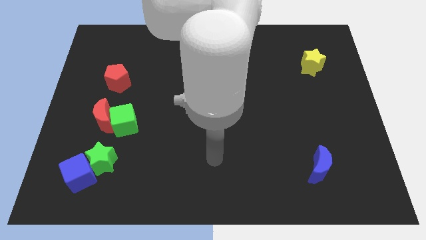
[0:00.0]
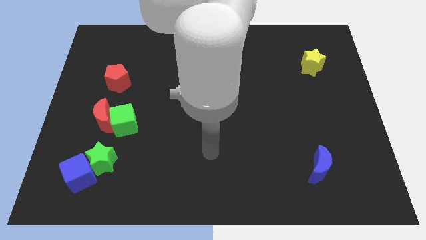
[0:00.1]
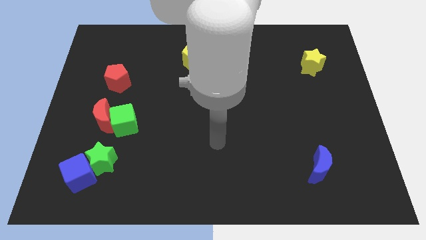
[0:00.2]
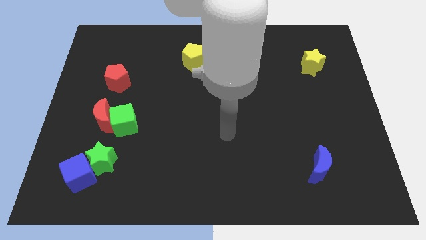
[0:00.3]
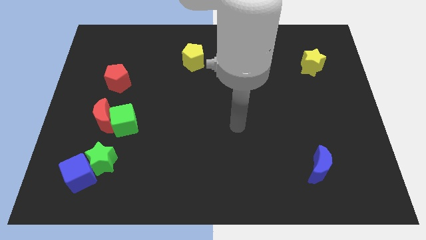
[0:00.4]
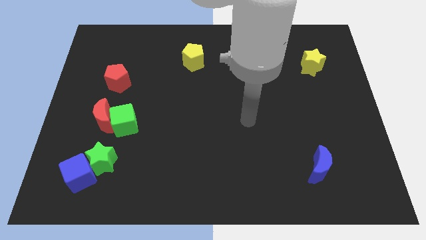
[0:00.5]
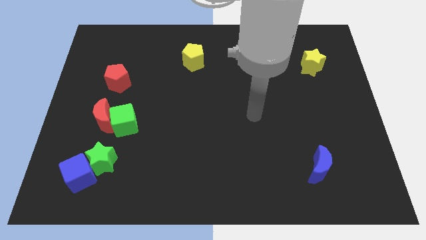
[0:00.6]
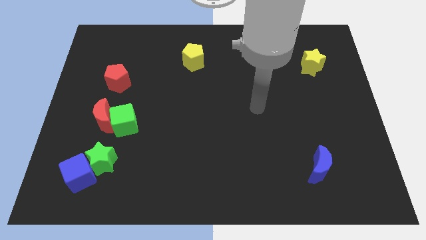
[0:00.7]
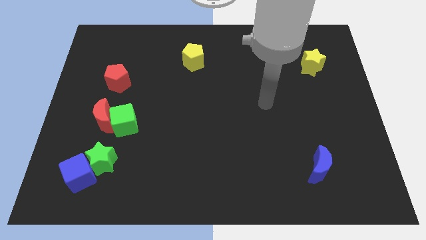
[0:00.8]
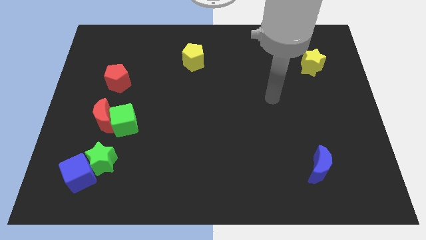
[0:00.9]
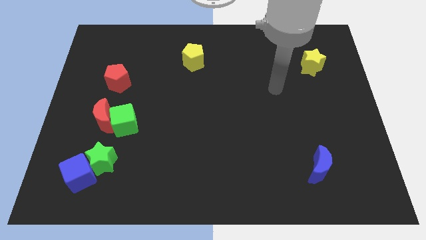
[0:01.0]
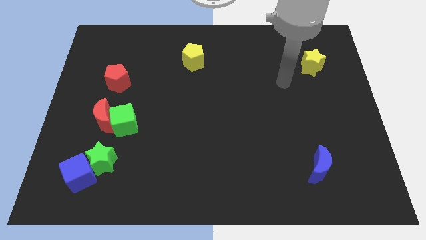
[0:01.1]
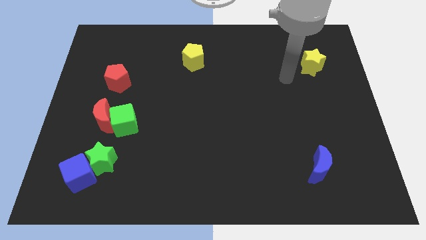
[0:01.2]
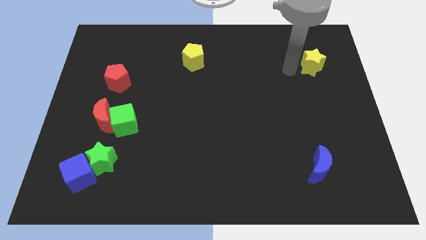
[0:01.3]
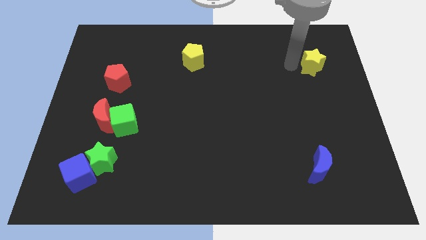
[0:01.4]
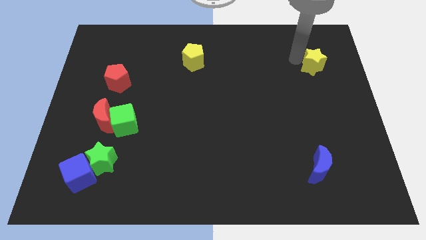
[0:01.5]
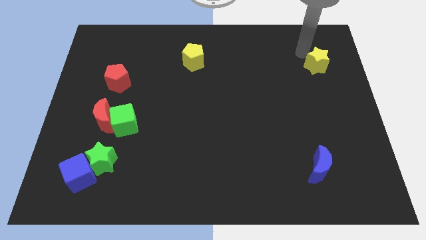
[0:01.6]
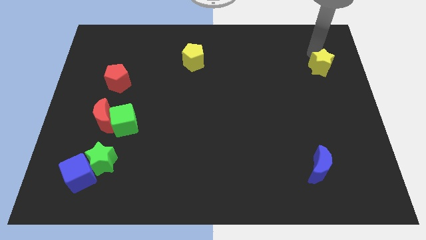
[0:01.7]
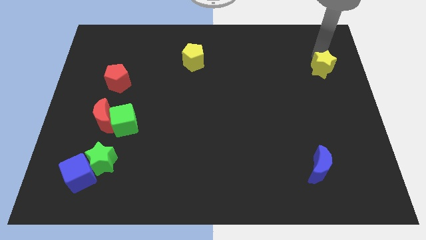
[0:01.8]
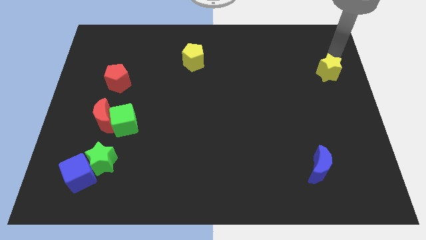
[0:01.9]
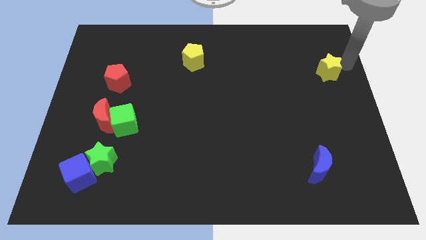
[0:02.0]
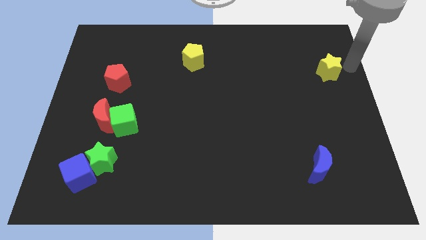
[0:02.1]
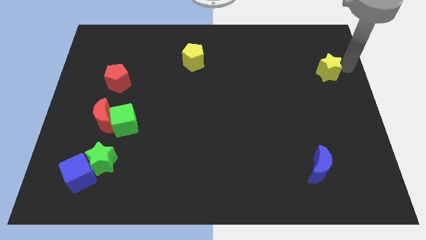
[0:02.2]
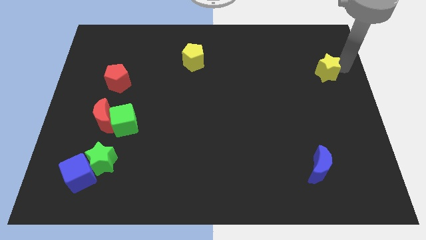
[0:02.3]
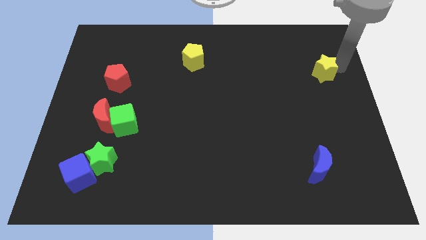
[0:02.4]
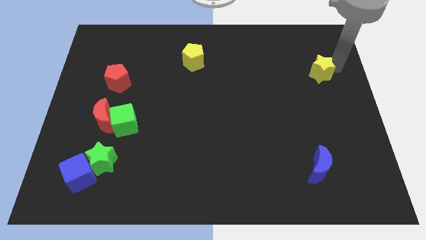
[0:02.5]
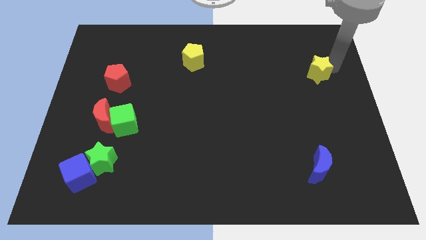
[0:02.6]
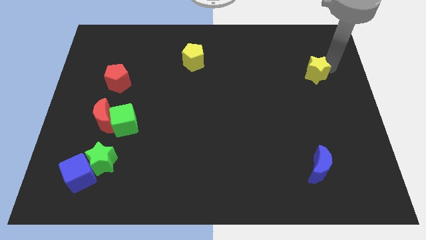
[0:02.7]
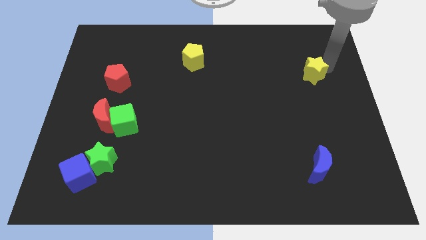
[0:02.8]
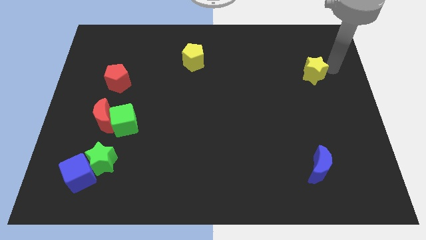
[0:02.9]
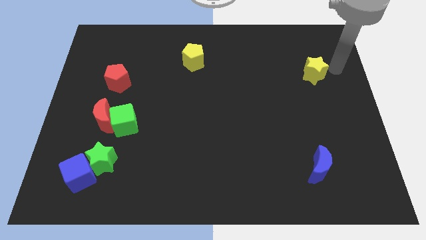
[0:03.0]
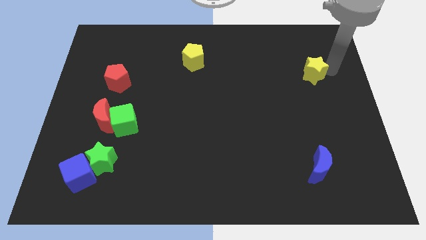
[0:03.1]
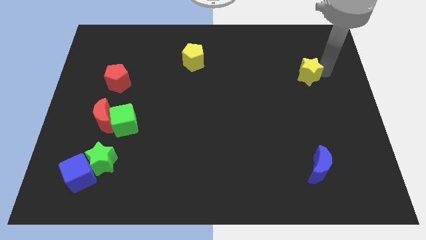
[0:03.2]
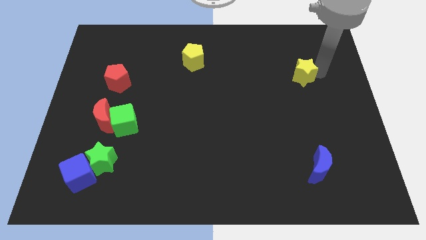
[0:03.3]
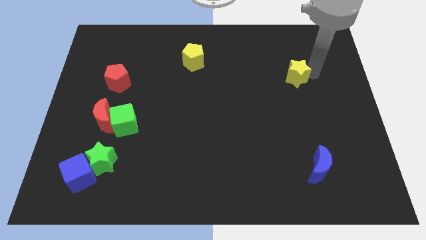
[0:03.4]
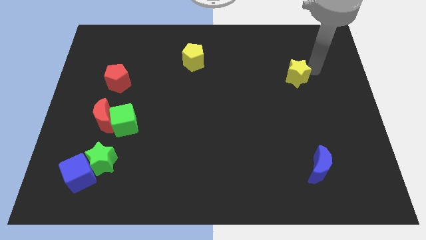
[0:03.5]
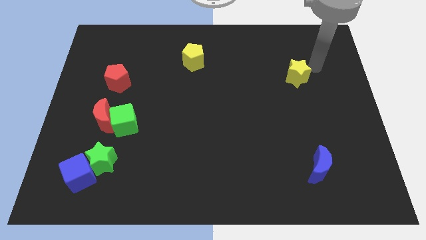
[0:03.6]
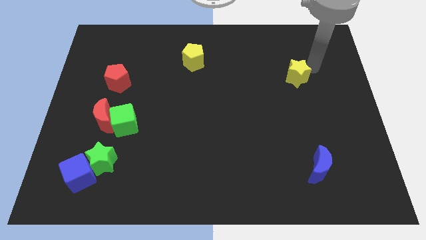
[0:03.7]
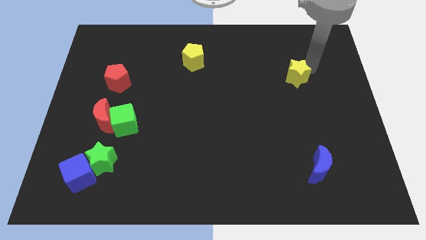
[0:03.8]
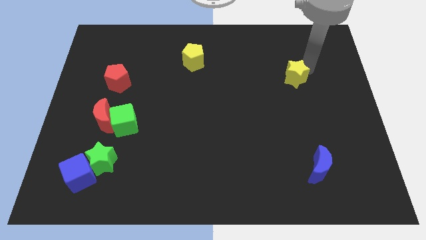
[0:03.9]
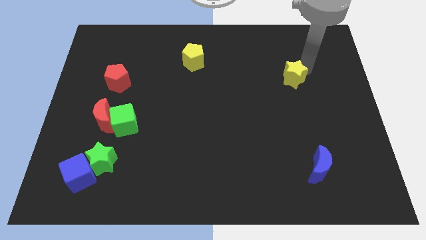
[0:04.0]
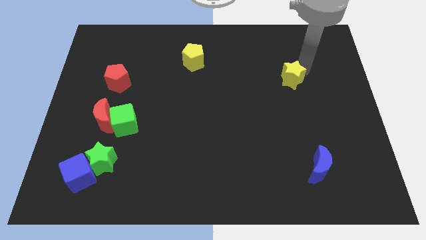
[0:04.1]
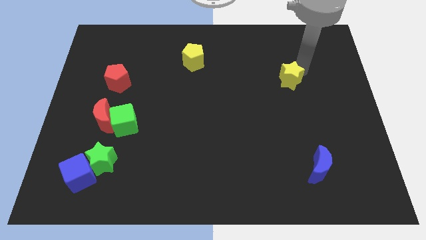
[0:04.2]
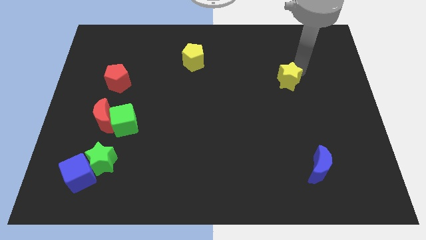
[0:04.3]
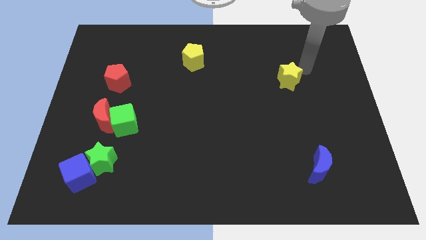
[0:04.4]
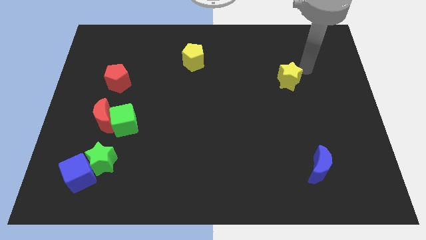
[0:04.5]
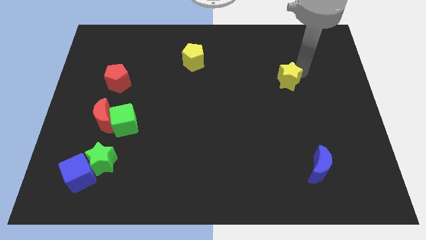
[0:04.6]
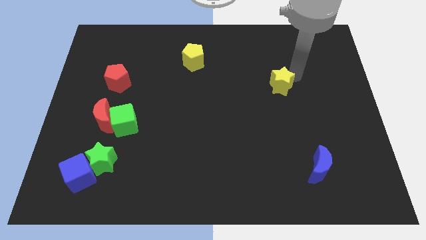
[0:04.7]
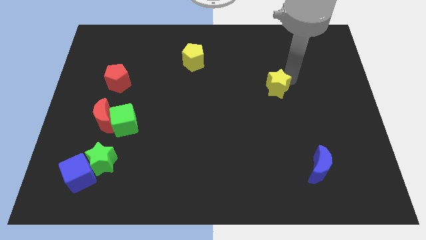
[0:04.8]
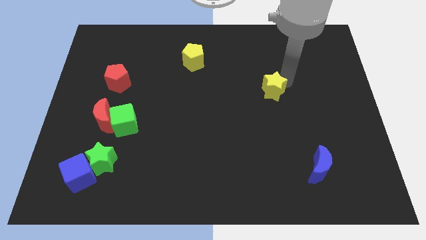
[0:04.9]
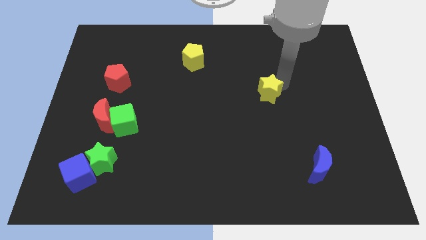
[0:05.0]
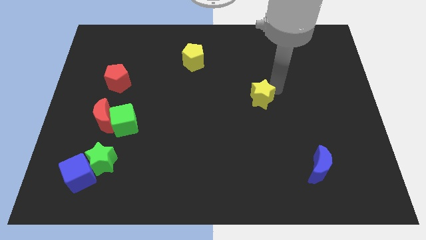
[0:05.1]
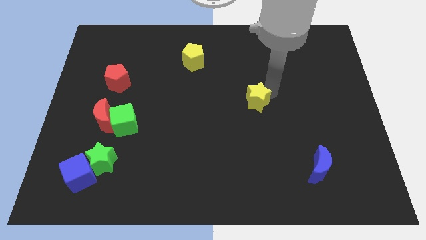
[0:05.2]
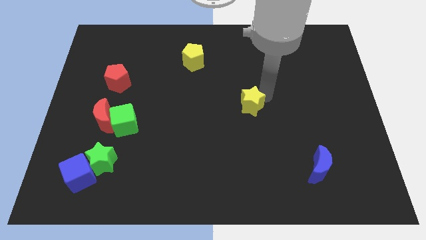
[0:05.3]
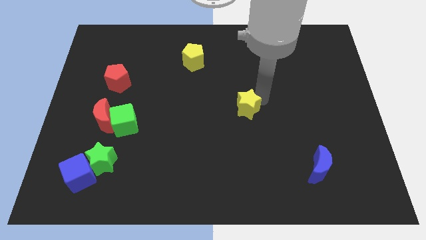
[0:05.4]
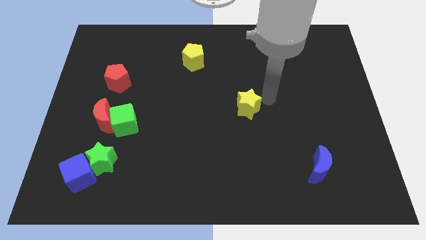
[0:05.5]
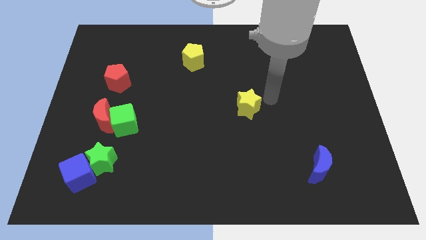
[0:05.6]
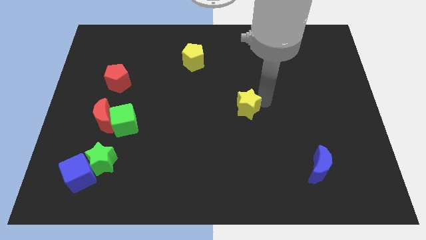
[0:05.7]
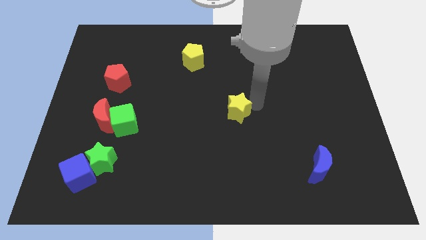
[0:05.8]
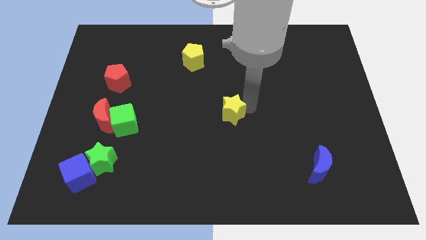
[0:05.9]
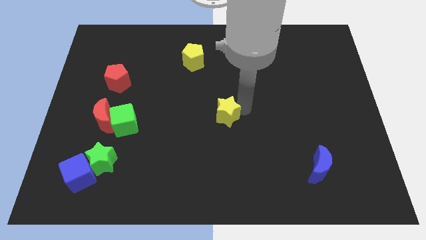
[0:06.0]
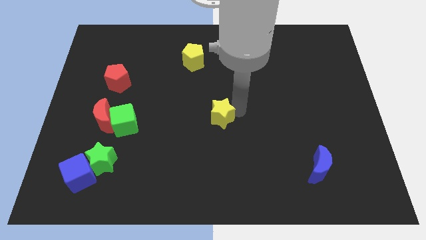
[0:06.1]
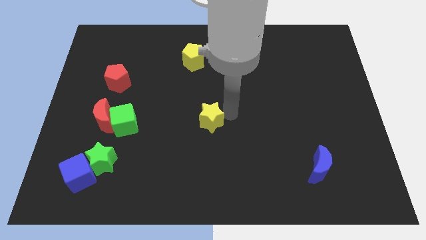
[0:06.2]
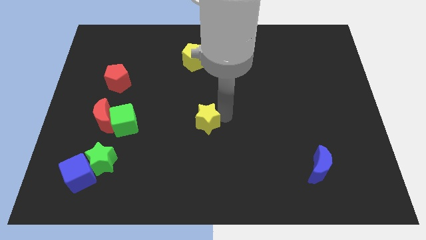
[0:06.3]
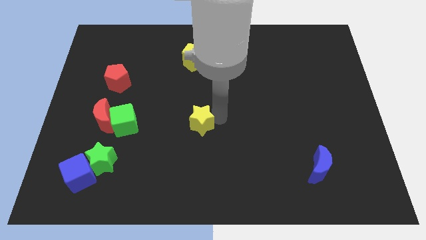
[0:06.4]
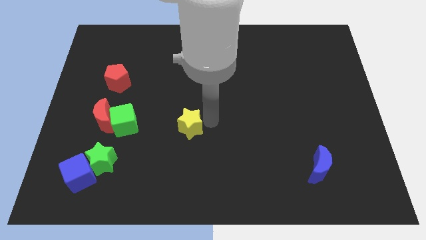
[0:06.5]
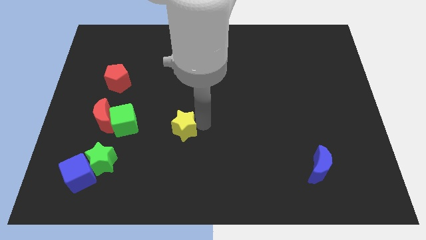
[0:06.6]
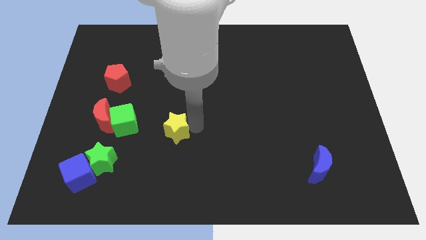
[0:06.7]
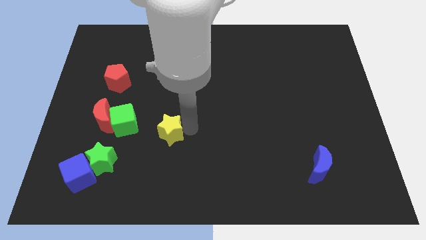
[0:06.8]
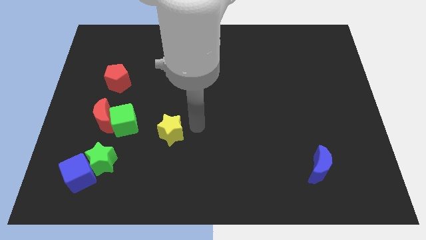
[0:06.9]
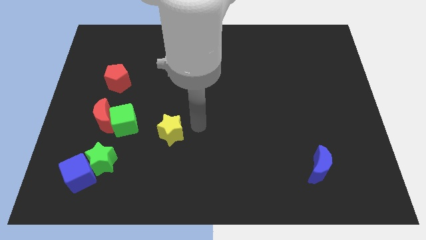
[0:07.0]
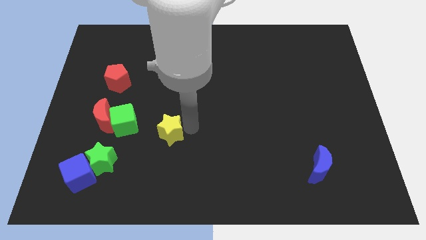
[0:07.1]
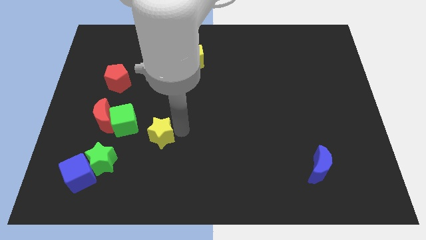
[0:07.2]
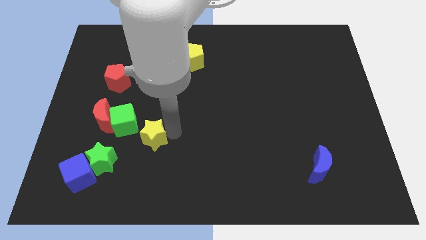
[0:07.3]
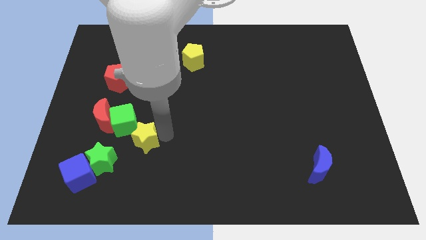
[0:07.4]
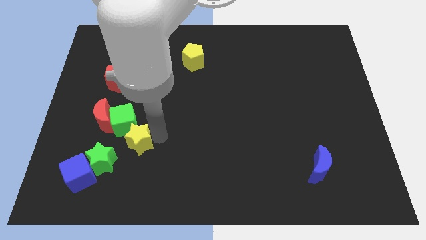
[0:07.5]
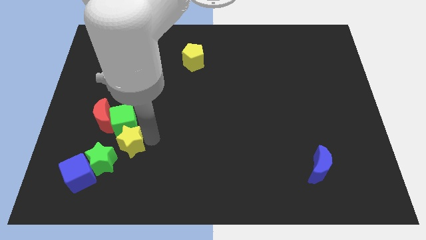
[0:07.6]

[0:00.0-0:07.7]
push the yellow star to the top right side of the blue cube
